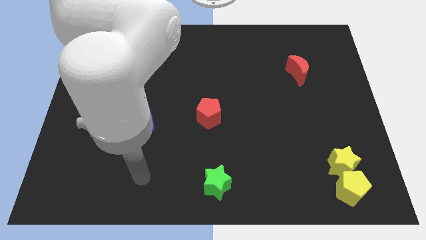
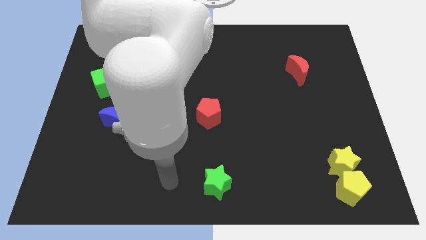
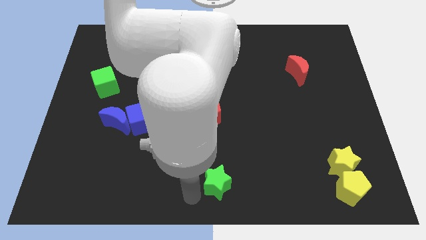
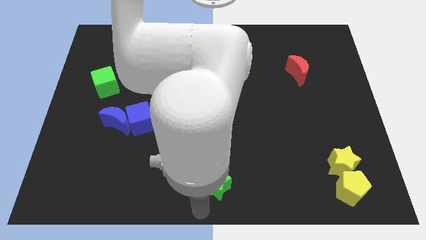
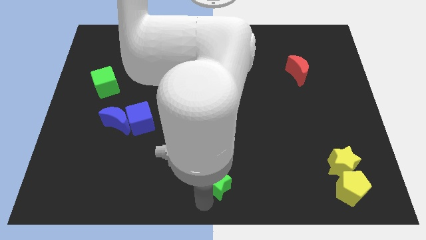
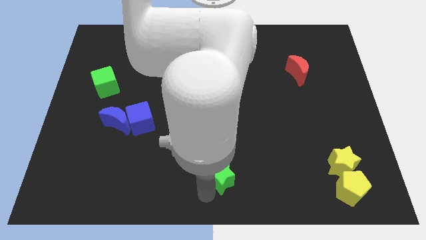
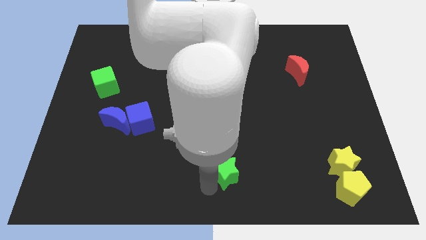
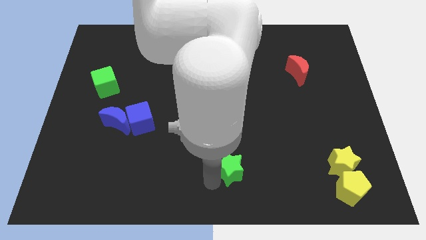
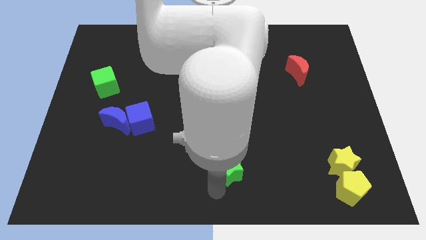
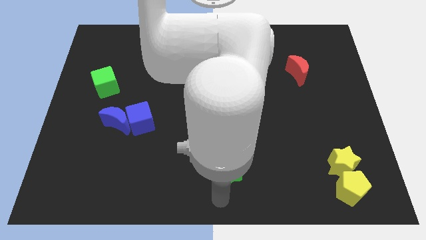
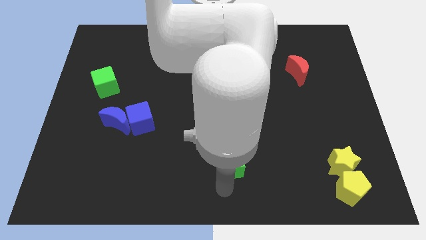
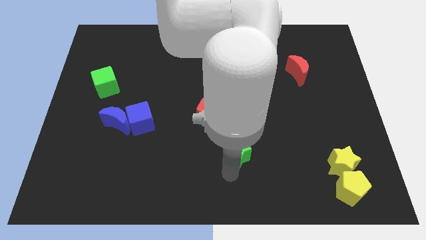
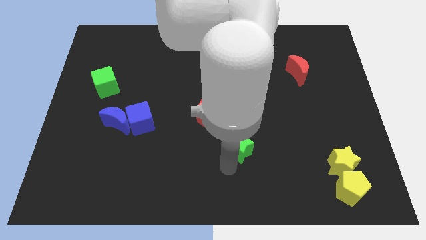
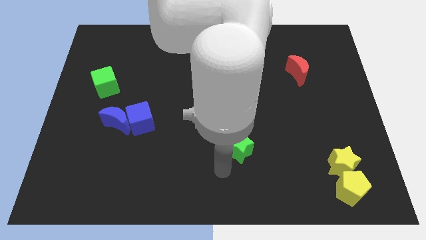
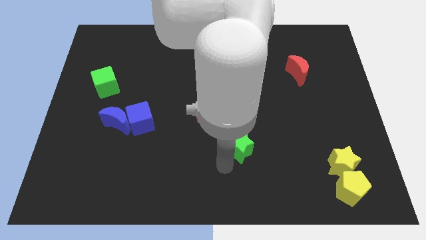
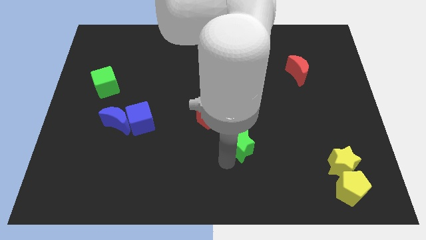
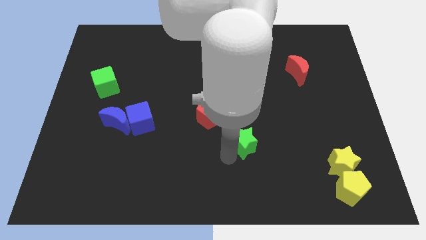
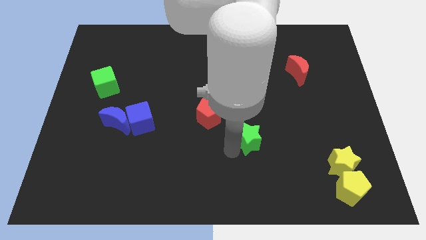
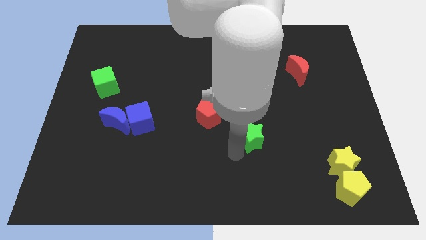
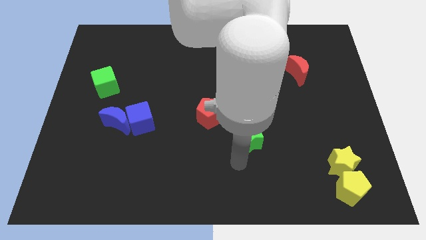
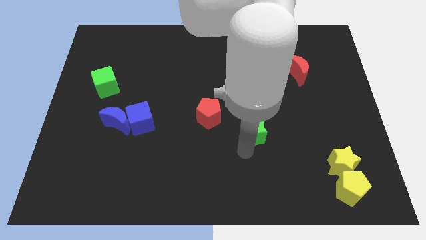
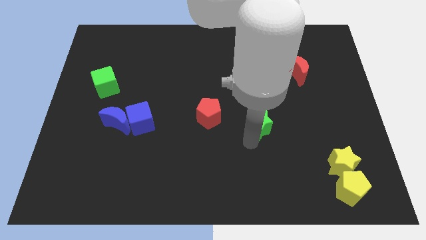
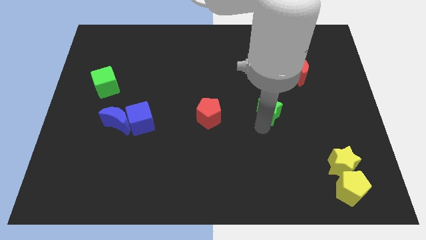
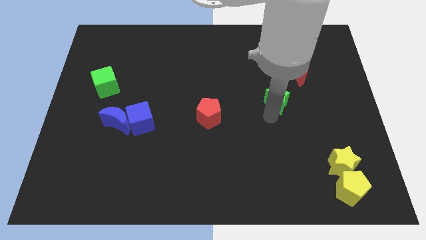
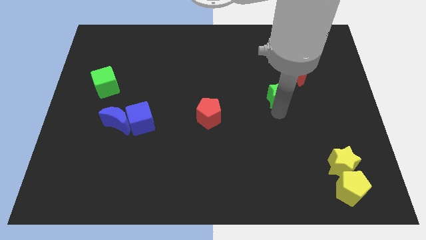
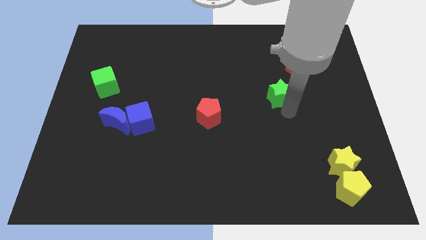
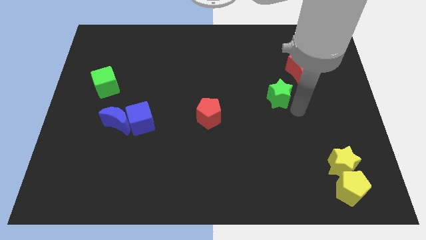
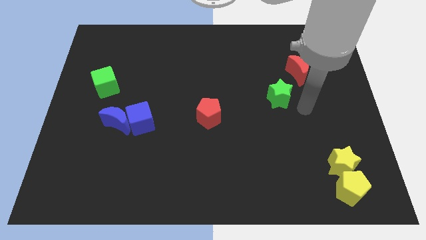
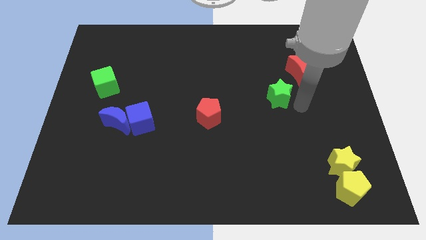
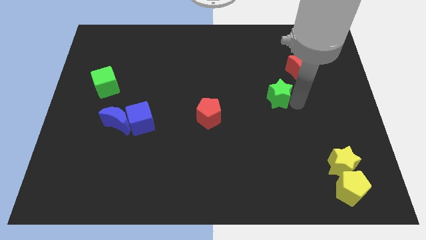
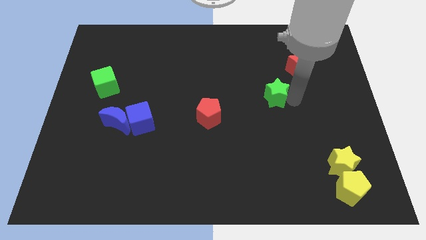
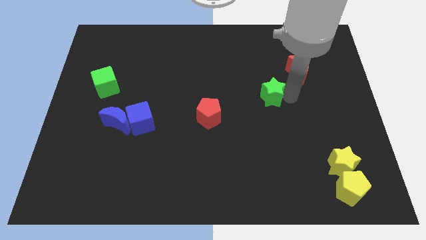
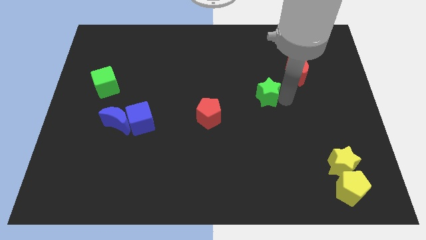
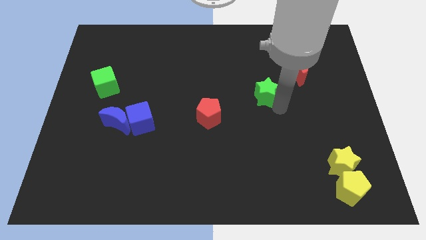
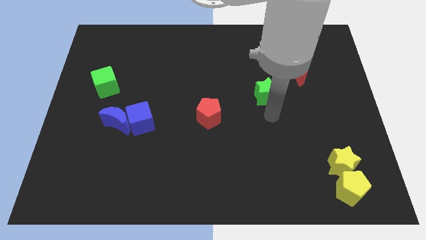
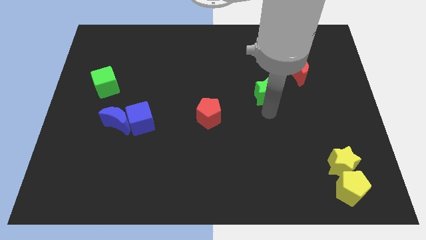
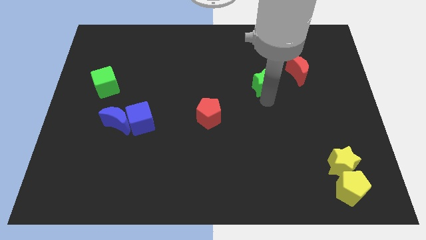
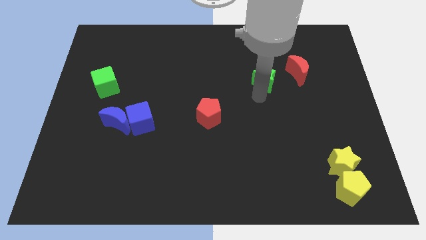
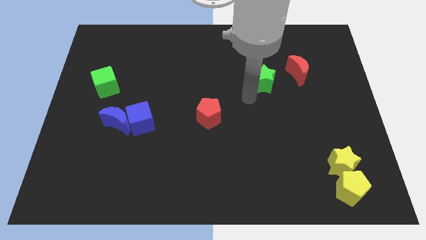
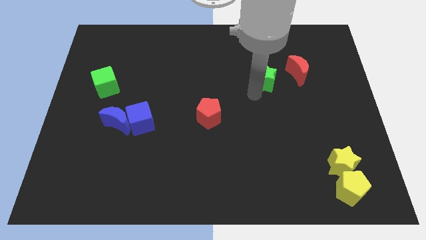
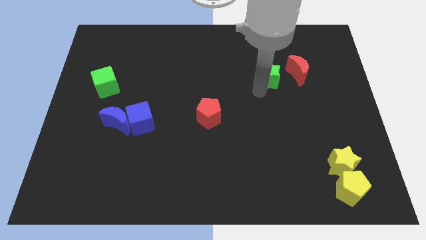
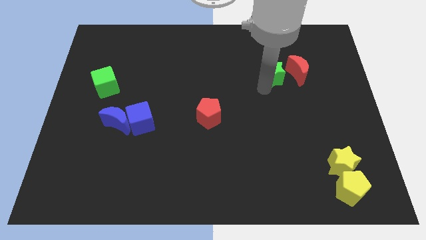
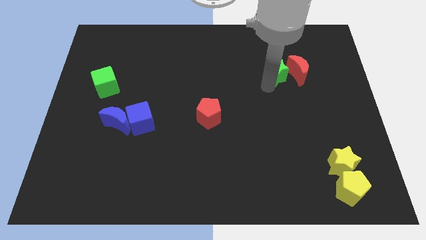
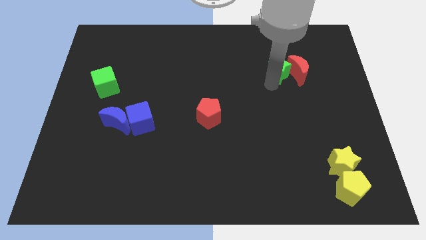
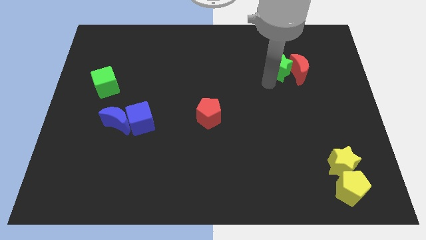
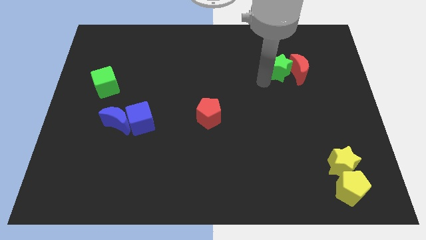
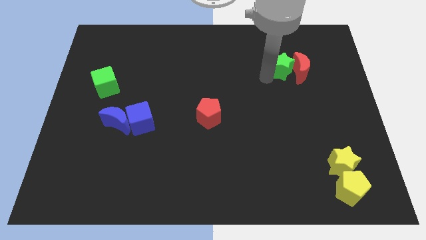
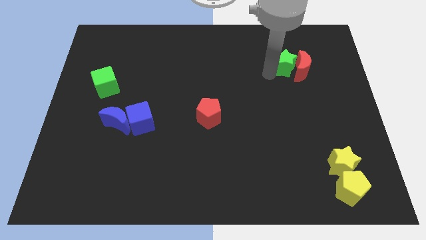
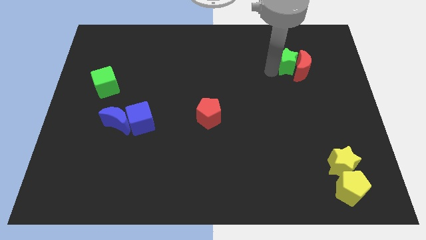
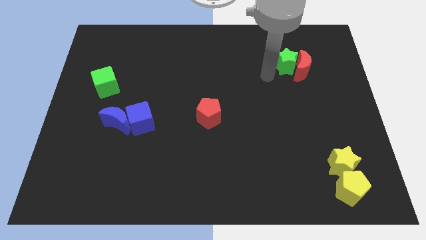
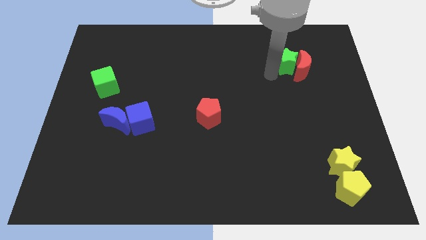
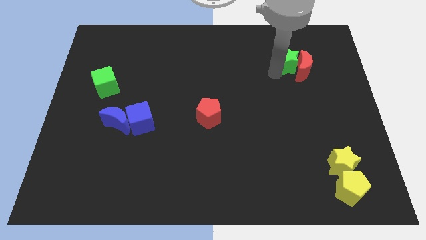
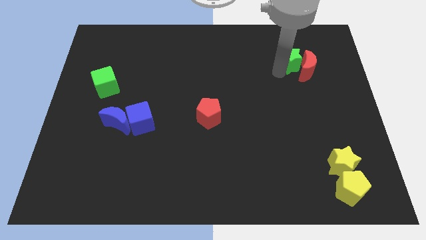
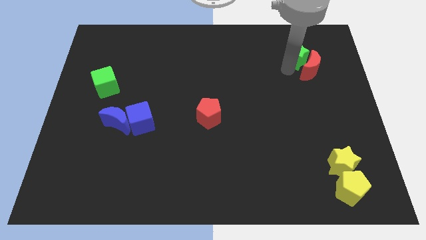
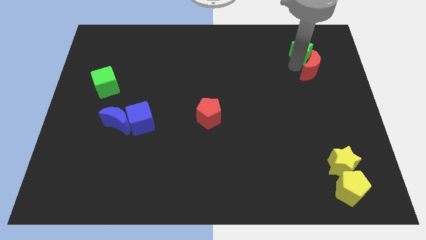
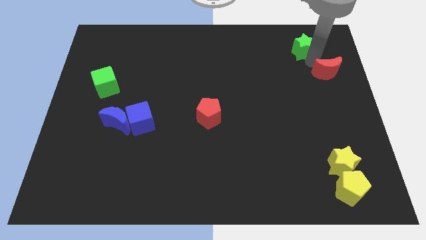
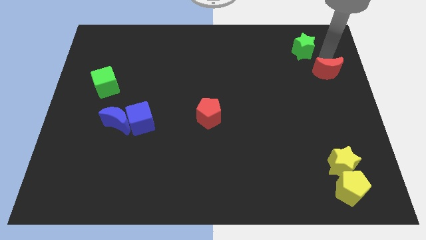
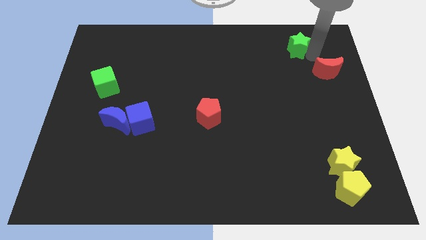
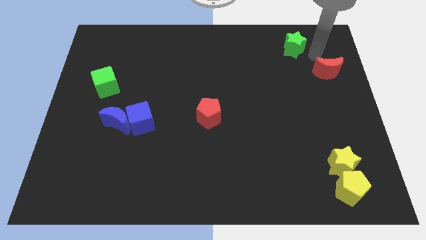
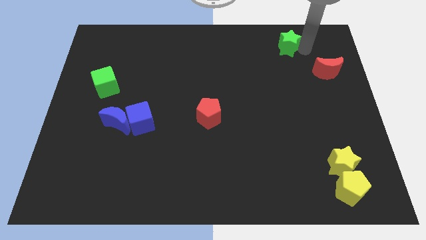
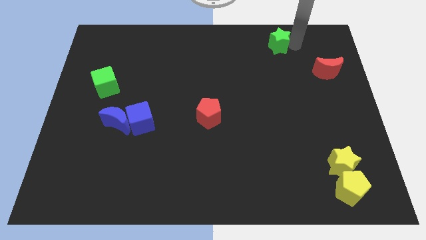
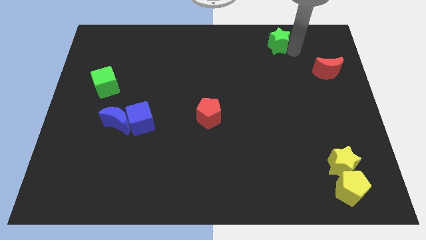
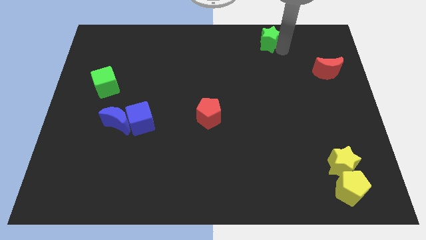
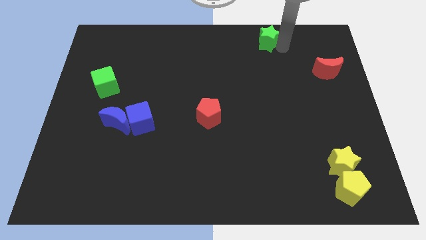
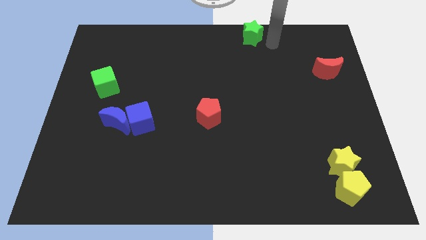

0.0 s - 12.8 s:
put the green star to the top

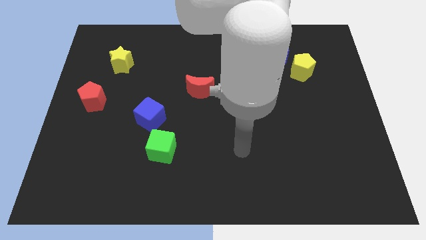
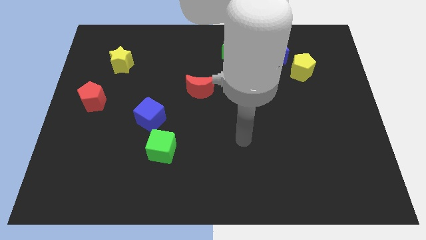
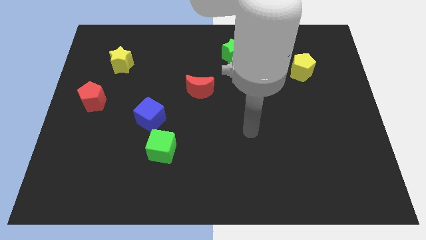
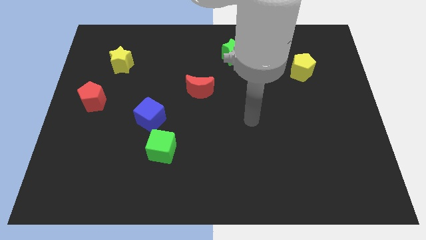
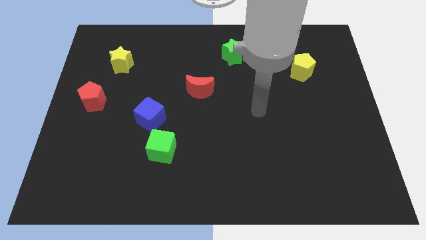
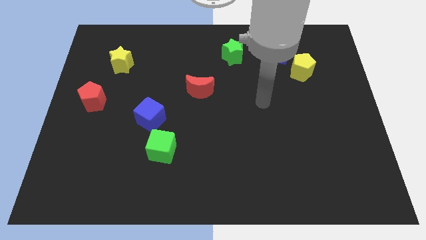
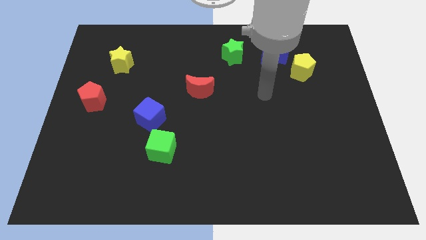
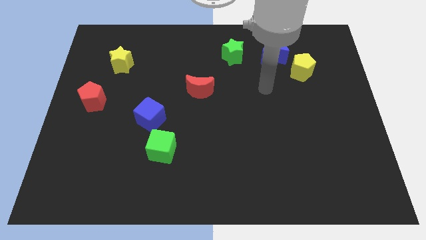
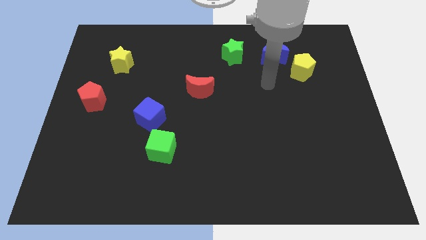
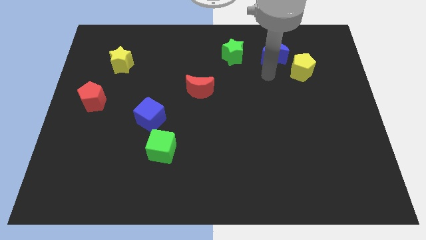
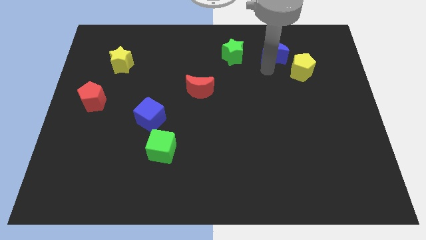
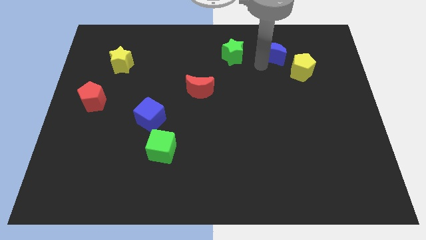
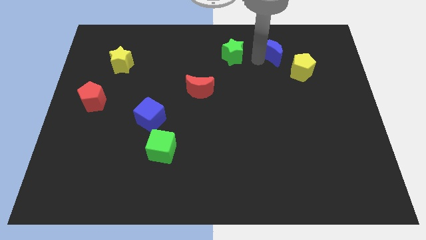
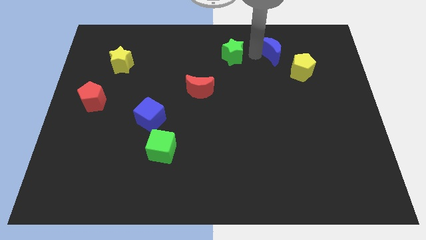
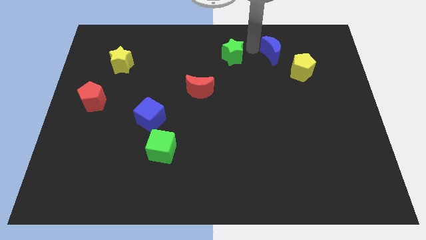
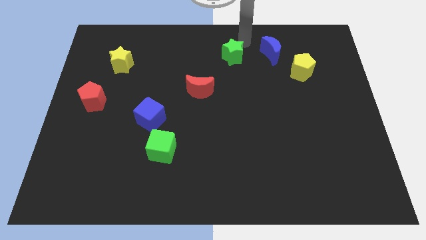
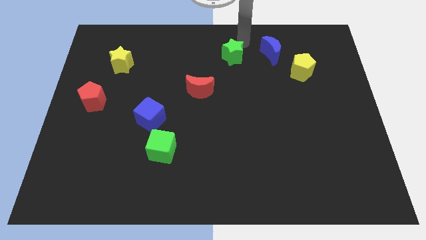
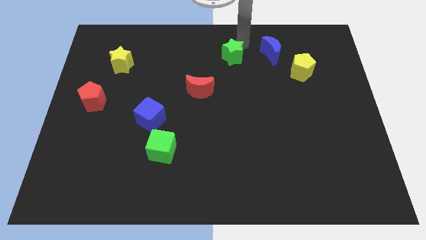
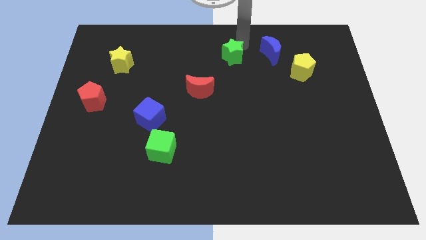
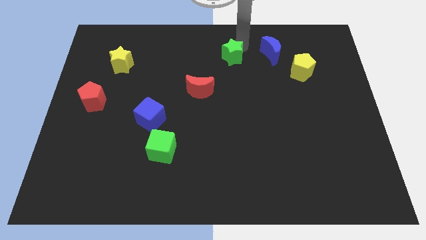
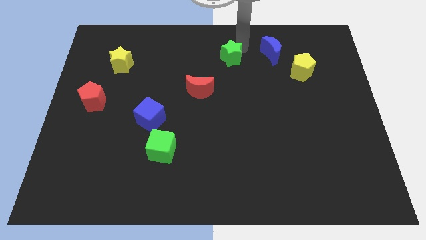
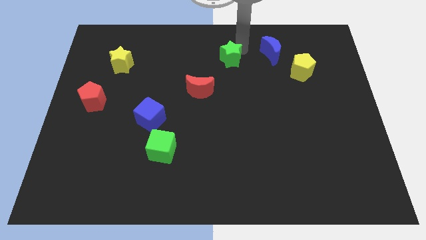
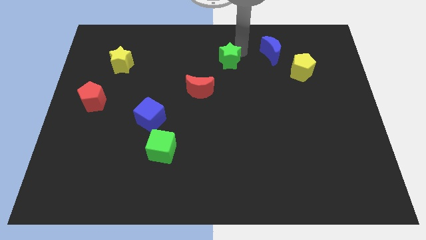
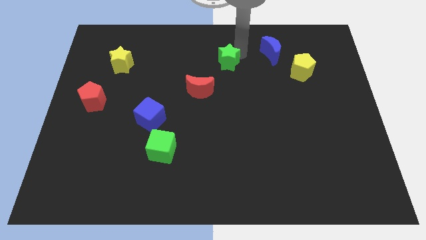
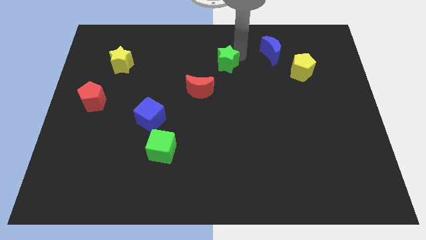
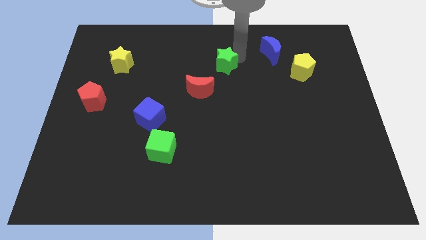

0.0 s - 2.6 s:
slide the green star to the center
